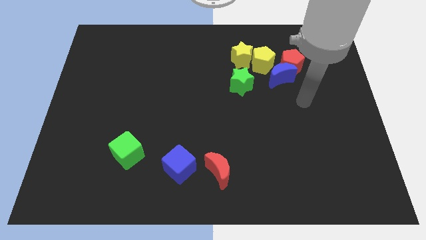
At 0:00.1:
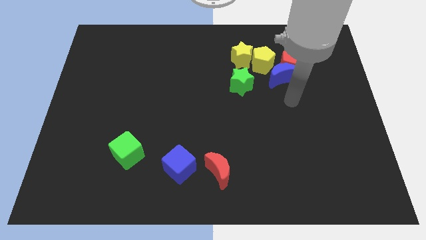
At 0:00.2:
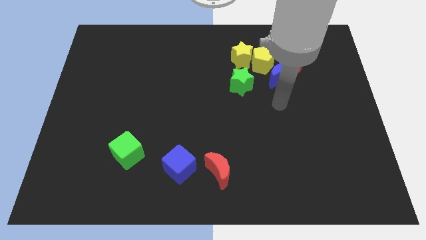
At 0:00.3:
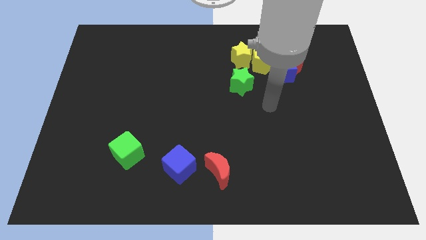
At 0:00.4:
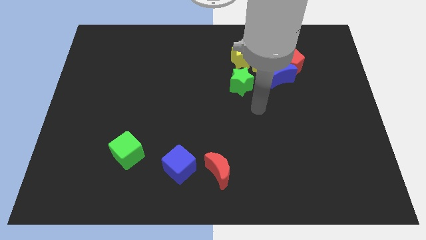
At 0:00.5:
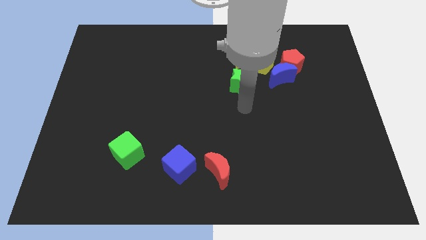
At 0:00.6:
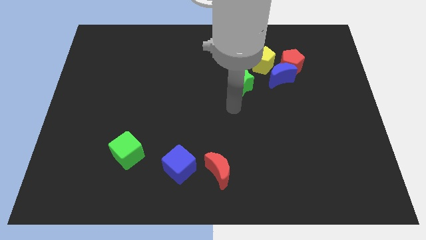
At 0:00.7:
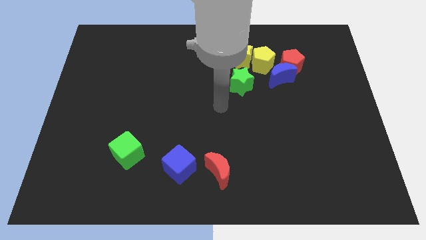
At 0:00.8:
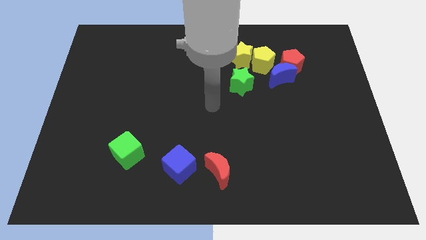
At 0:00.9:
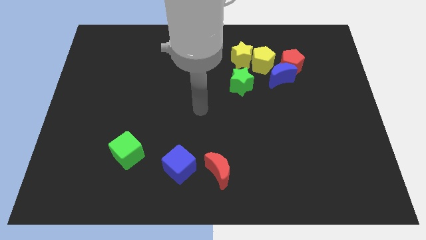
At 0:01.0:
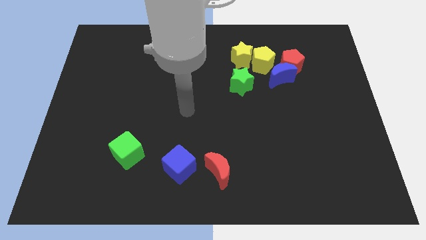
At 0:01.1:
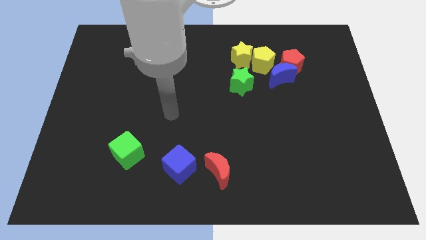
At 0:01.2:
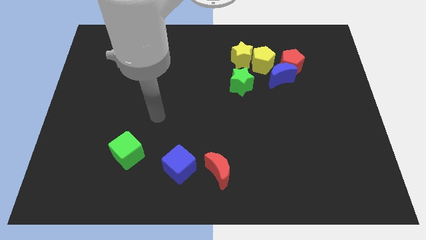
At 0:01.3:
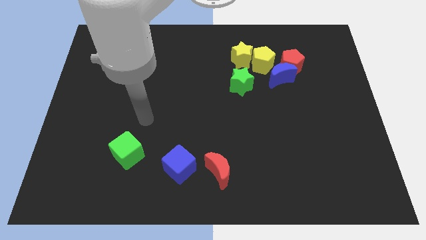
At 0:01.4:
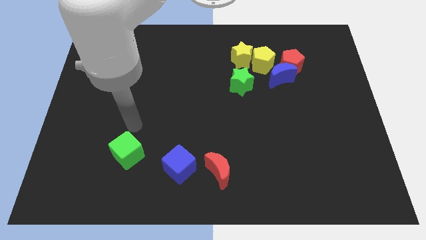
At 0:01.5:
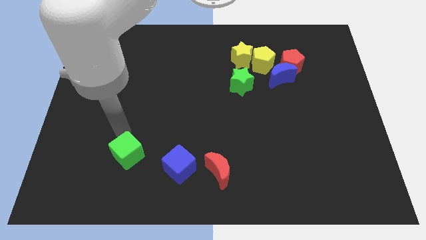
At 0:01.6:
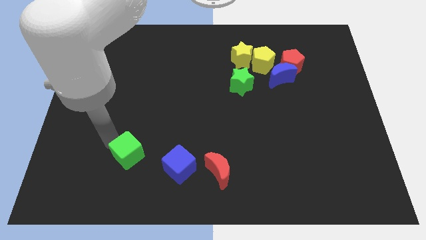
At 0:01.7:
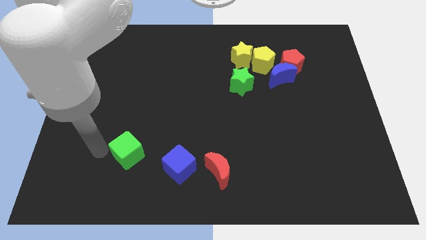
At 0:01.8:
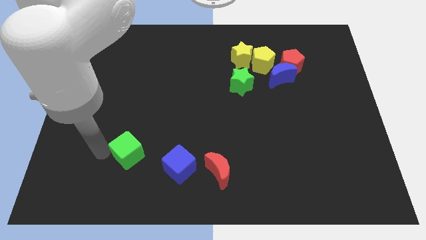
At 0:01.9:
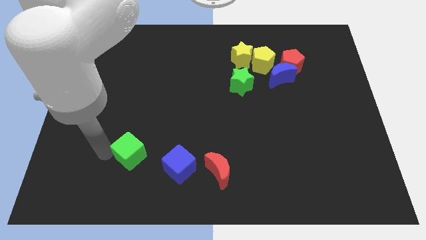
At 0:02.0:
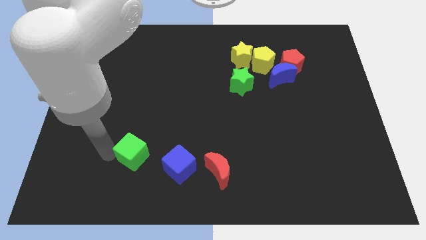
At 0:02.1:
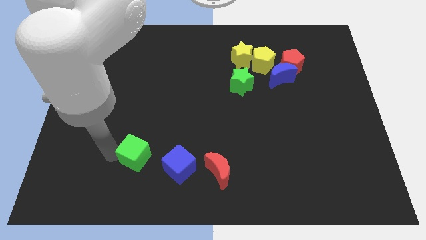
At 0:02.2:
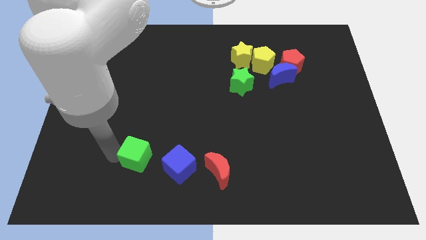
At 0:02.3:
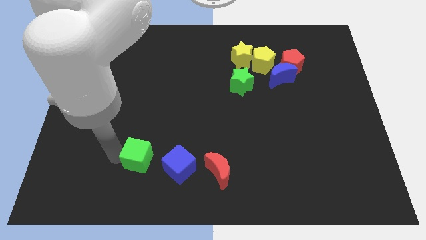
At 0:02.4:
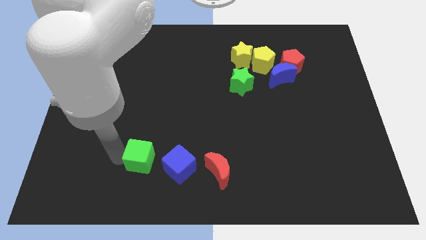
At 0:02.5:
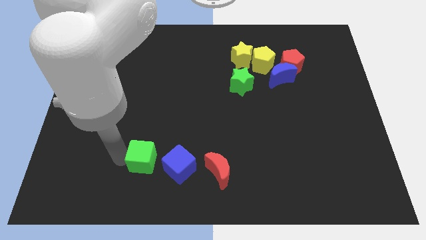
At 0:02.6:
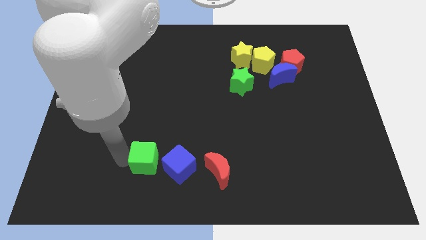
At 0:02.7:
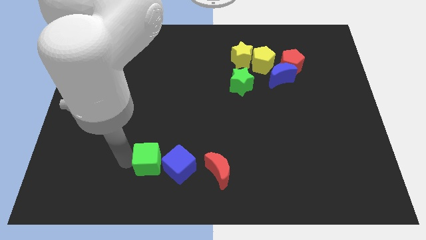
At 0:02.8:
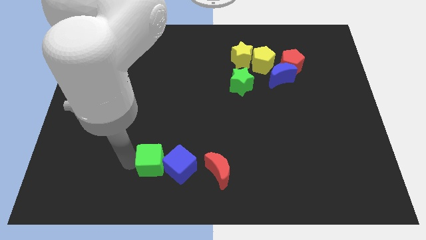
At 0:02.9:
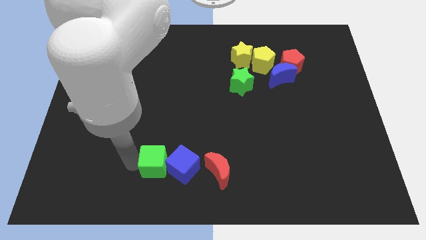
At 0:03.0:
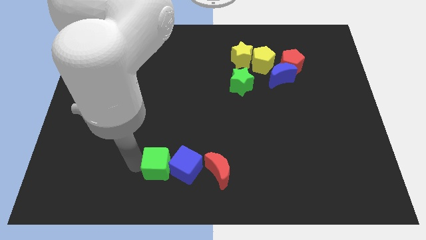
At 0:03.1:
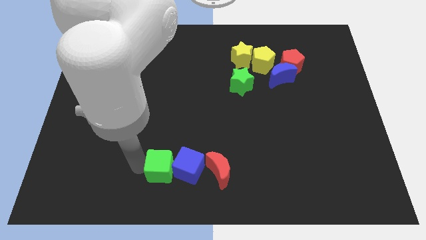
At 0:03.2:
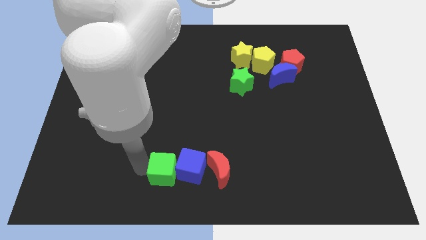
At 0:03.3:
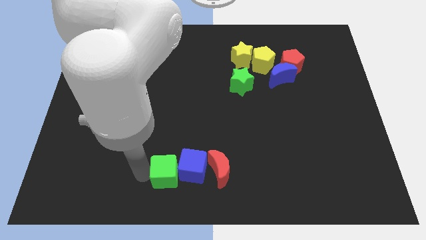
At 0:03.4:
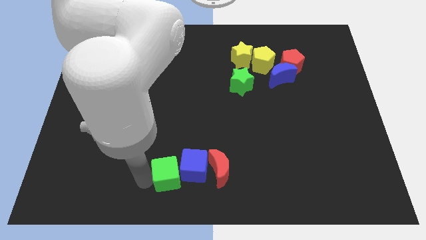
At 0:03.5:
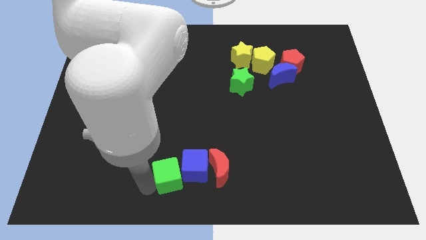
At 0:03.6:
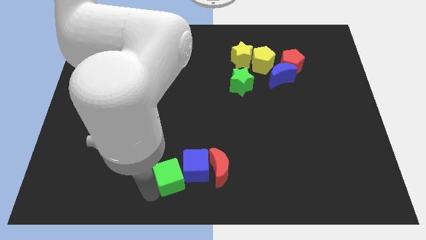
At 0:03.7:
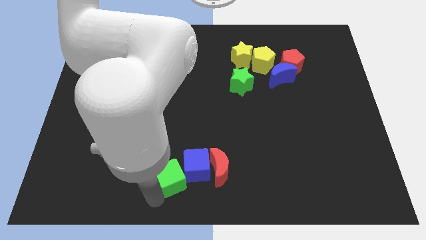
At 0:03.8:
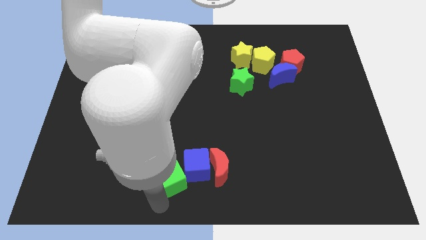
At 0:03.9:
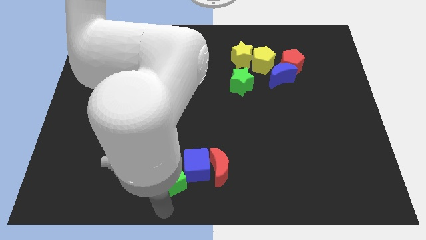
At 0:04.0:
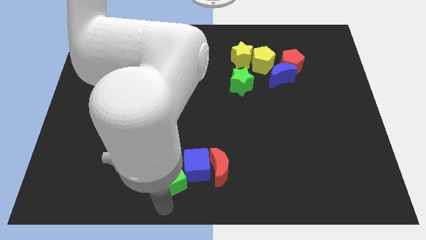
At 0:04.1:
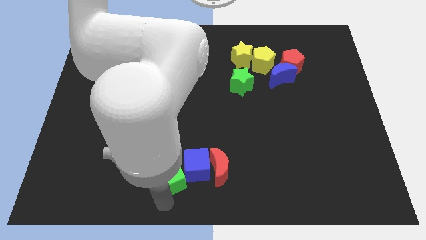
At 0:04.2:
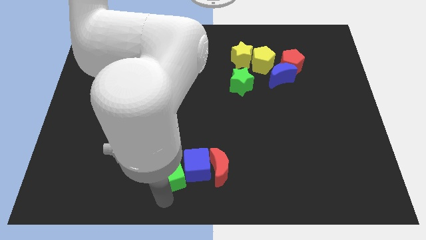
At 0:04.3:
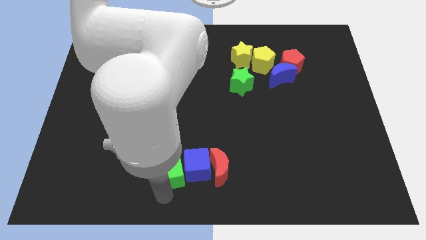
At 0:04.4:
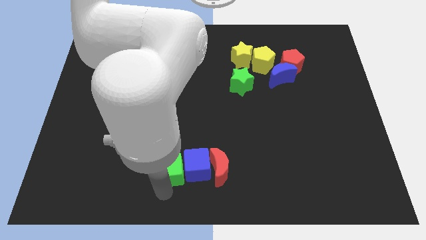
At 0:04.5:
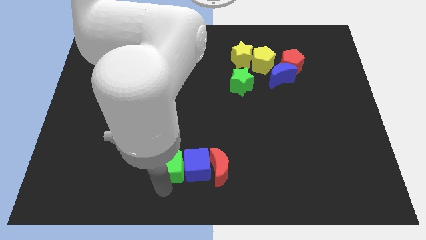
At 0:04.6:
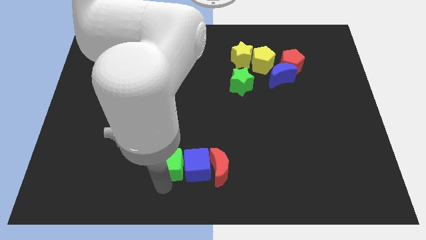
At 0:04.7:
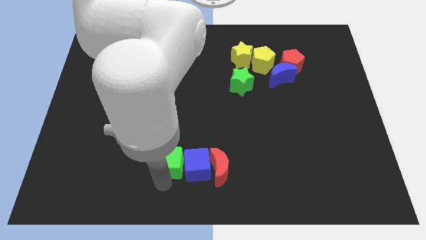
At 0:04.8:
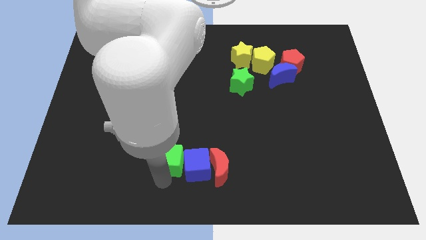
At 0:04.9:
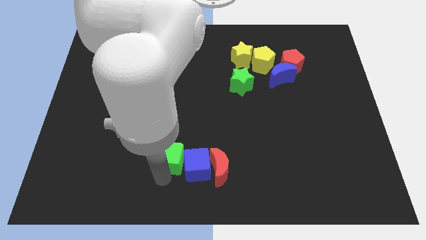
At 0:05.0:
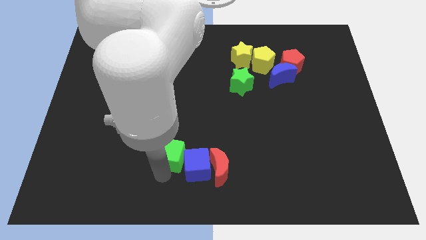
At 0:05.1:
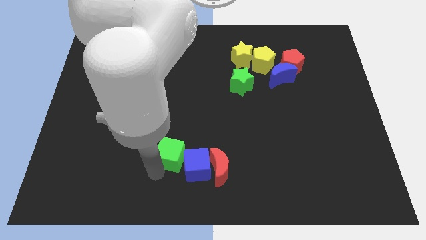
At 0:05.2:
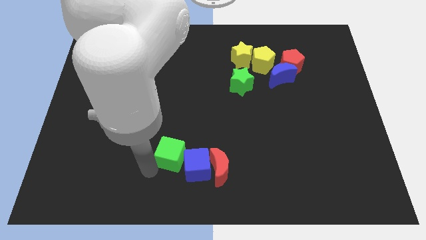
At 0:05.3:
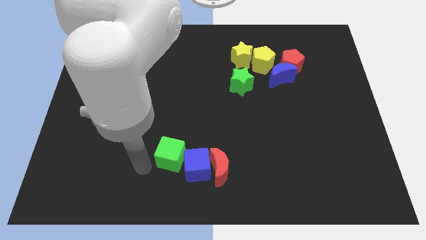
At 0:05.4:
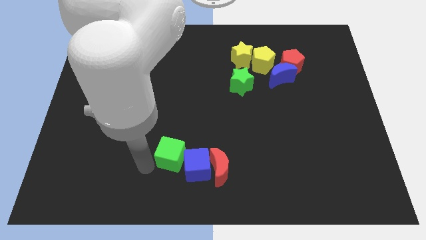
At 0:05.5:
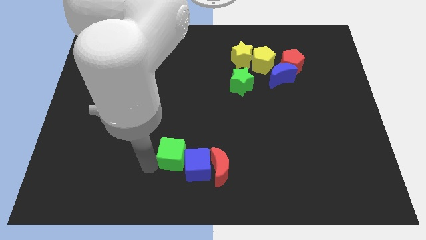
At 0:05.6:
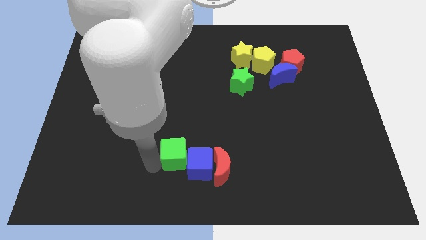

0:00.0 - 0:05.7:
move the green cube diagonally up and to the left of the red moon

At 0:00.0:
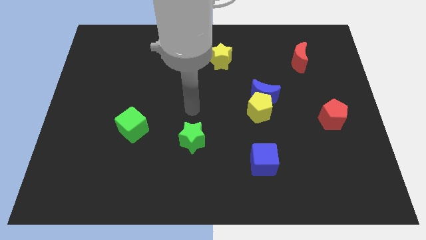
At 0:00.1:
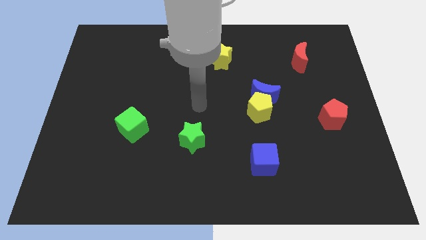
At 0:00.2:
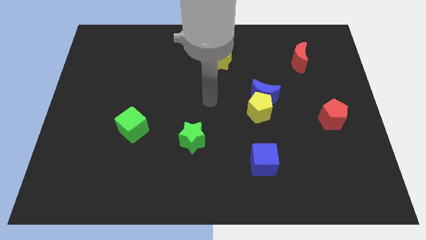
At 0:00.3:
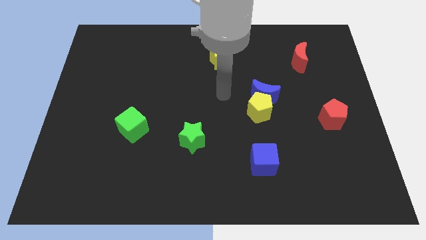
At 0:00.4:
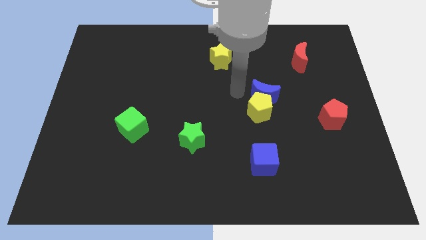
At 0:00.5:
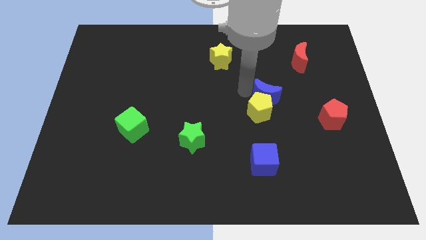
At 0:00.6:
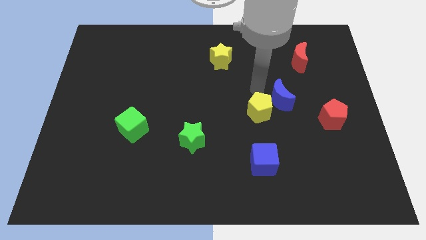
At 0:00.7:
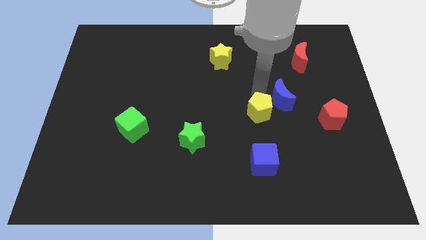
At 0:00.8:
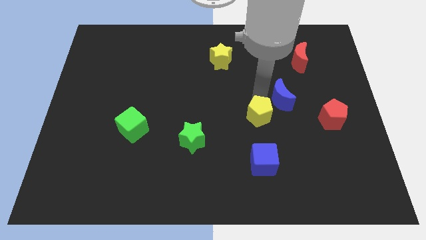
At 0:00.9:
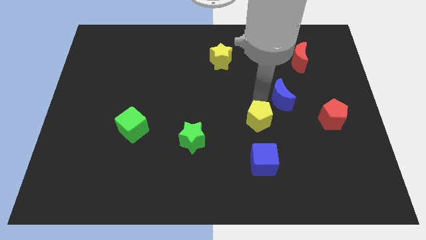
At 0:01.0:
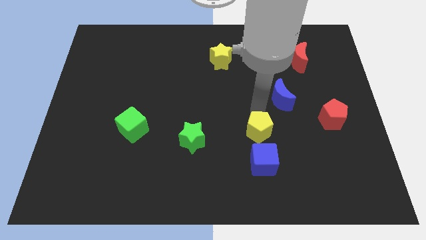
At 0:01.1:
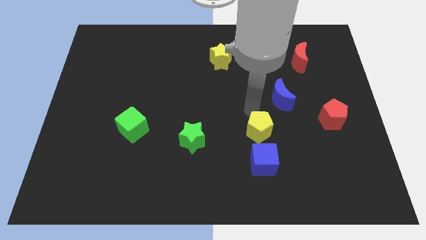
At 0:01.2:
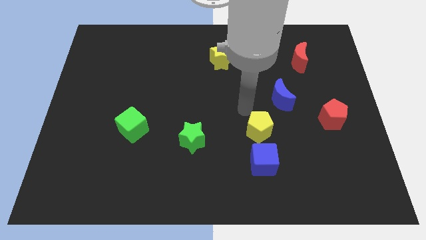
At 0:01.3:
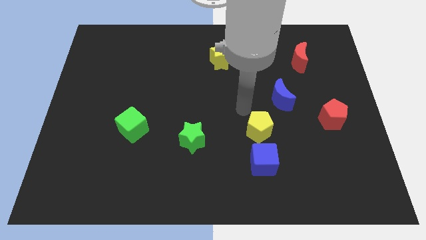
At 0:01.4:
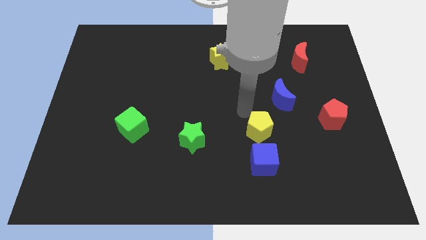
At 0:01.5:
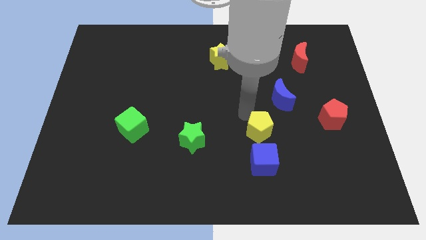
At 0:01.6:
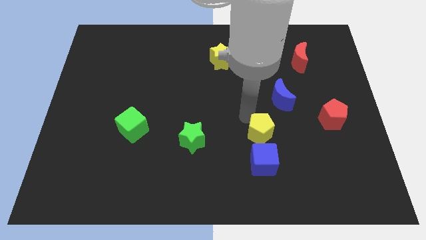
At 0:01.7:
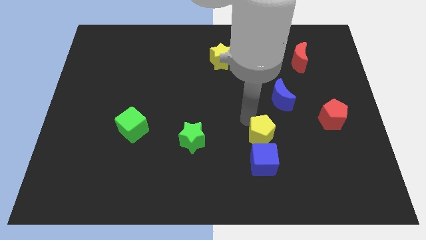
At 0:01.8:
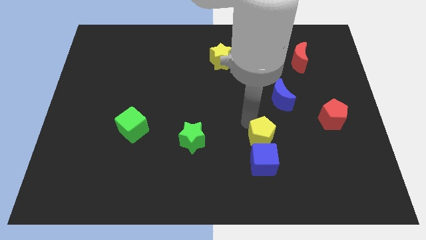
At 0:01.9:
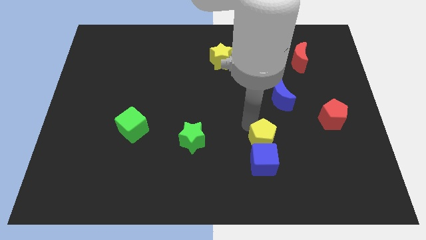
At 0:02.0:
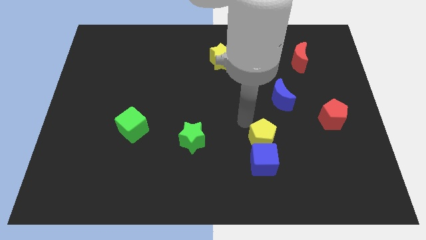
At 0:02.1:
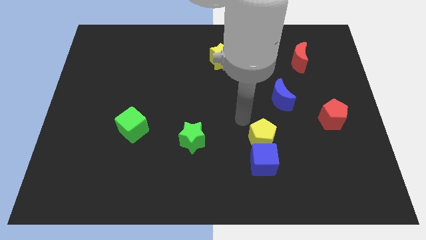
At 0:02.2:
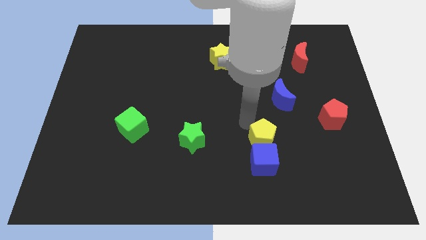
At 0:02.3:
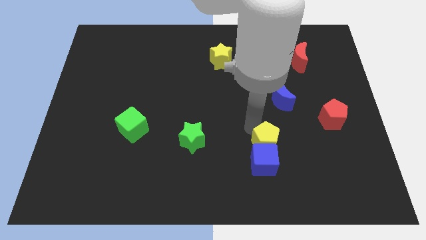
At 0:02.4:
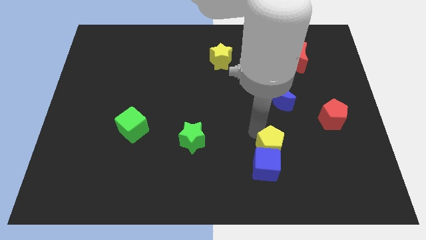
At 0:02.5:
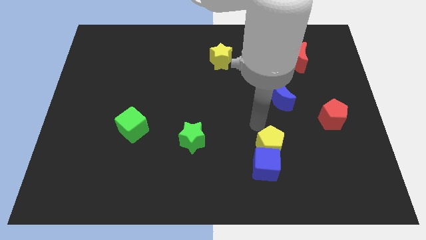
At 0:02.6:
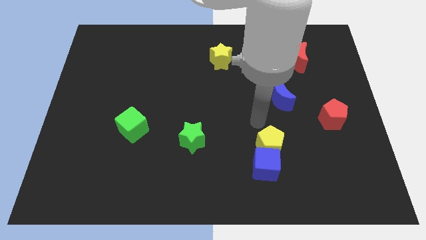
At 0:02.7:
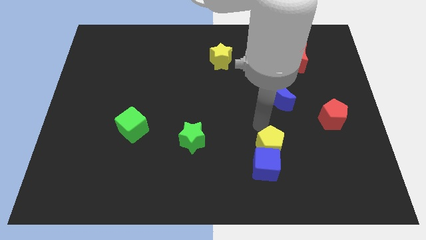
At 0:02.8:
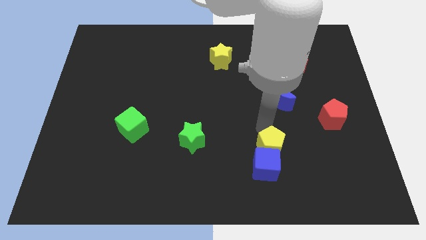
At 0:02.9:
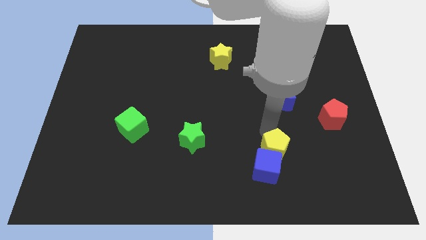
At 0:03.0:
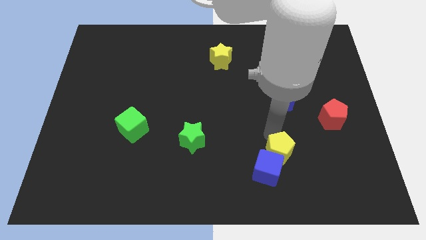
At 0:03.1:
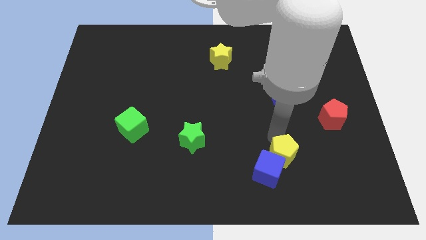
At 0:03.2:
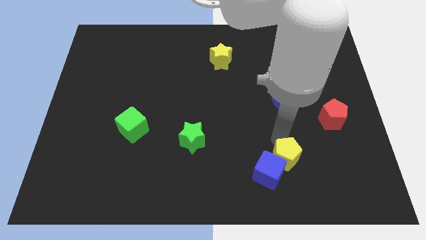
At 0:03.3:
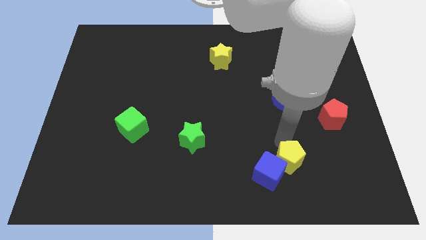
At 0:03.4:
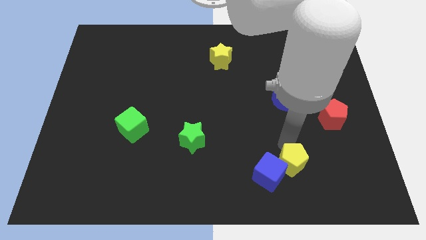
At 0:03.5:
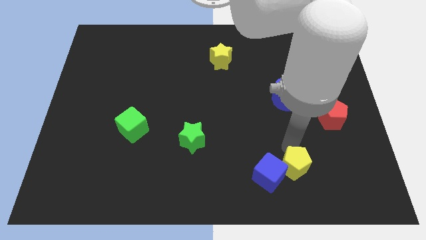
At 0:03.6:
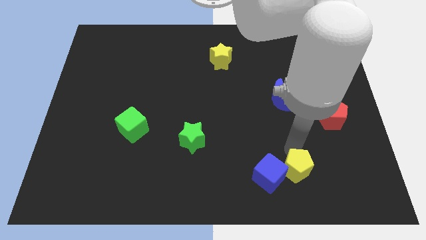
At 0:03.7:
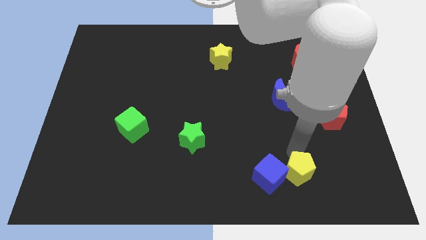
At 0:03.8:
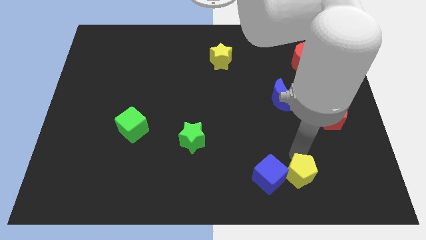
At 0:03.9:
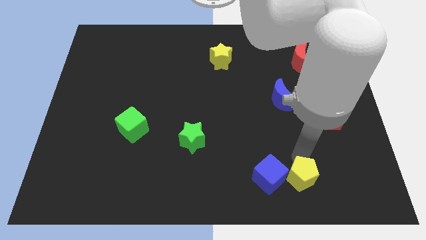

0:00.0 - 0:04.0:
push the yellow pentagon to the bottom right of the blue cube
